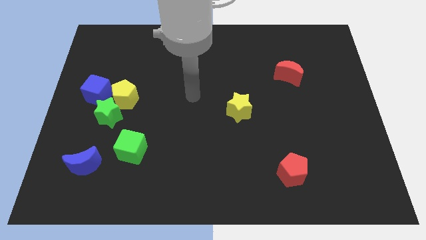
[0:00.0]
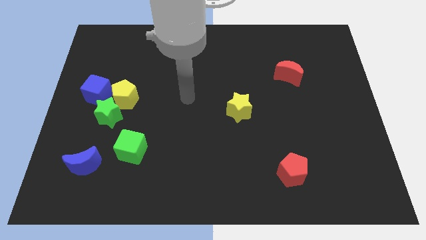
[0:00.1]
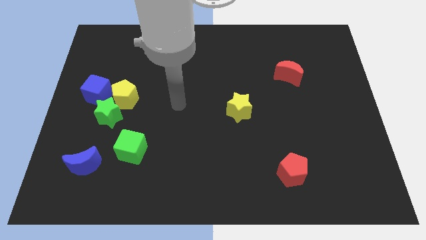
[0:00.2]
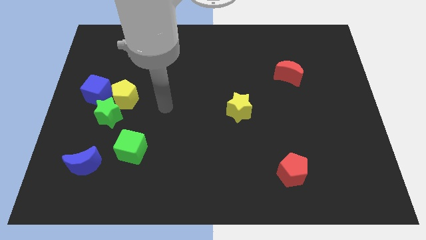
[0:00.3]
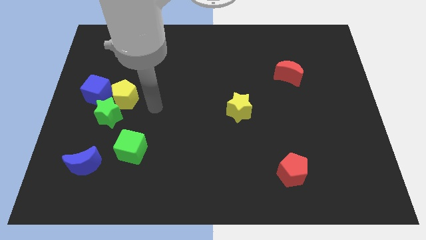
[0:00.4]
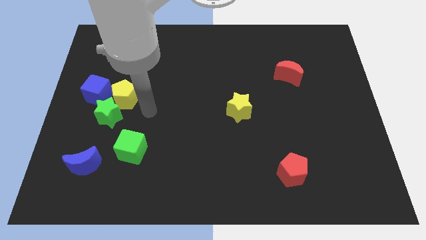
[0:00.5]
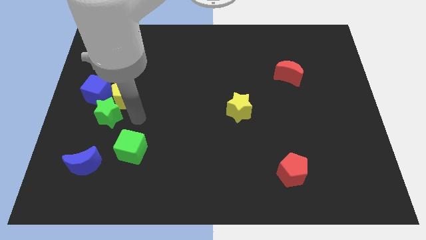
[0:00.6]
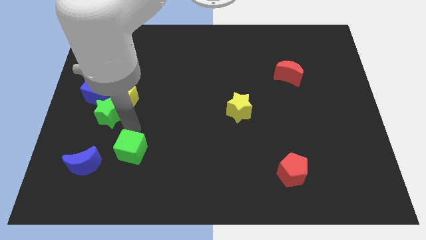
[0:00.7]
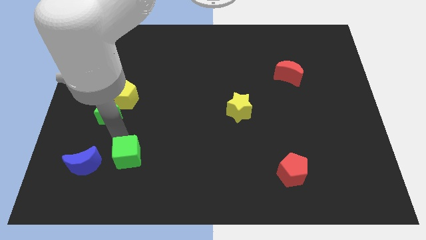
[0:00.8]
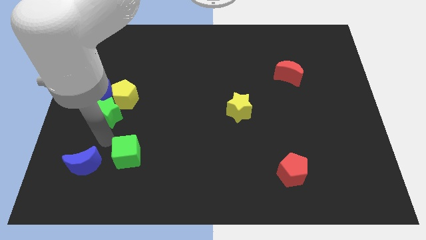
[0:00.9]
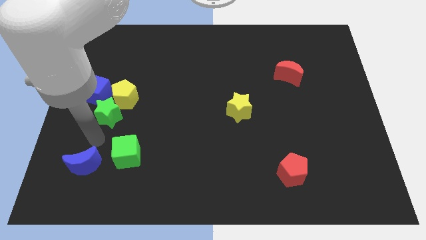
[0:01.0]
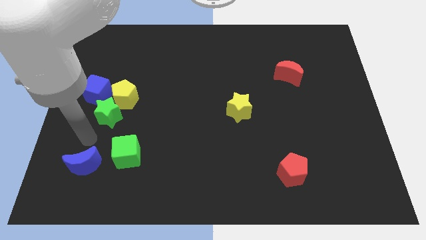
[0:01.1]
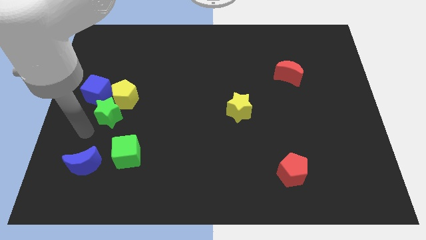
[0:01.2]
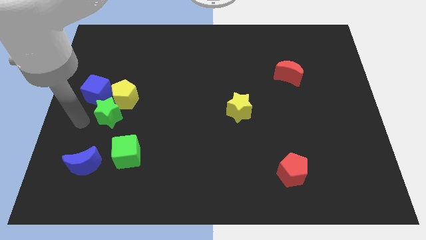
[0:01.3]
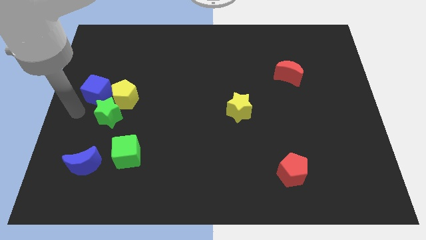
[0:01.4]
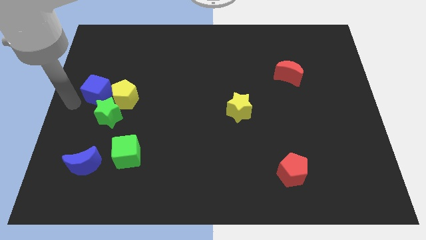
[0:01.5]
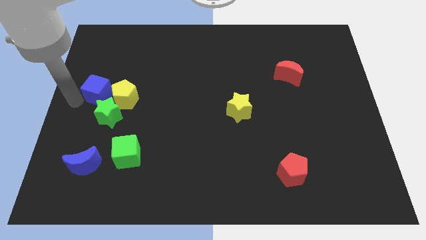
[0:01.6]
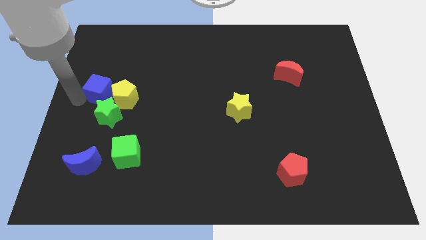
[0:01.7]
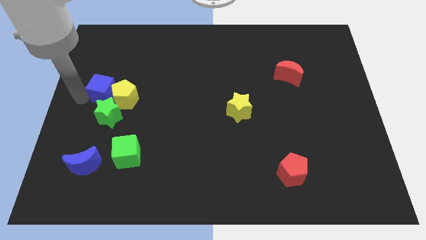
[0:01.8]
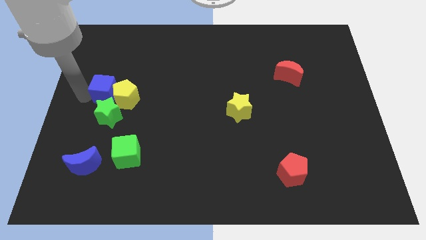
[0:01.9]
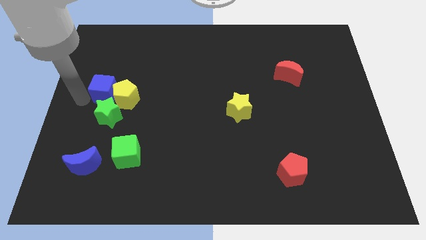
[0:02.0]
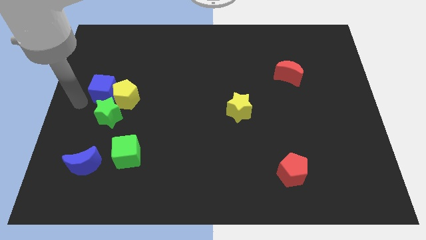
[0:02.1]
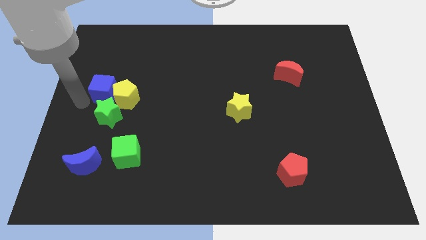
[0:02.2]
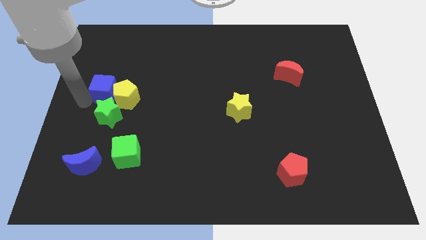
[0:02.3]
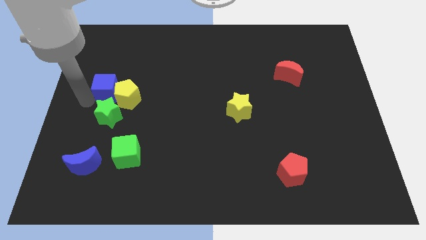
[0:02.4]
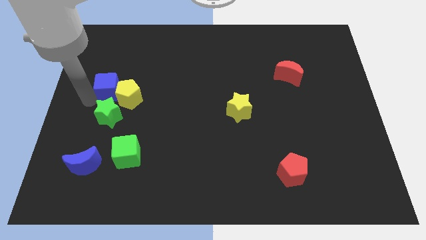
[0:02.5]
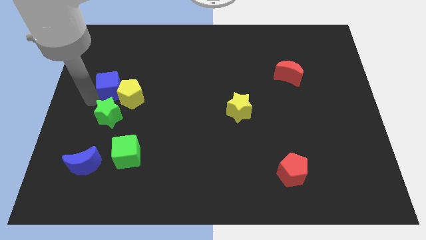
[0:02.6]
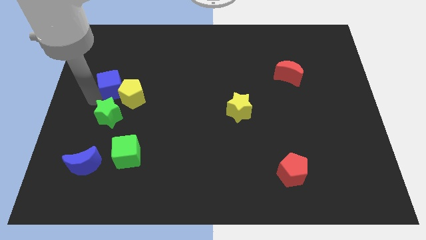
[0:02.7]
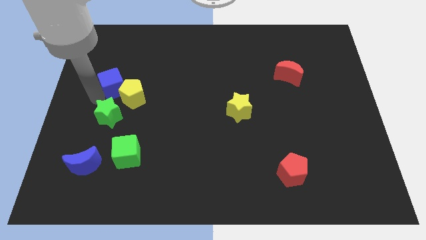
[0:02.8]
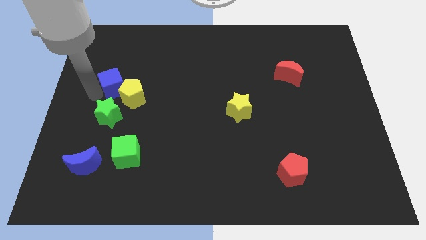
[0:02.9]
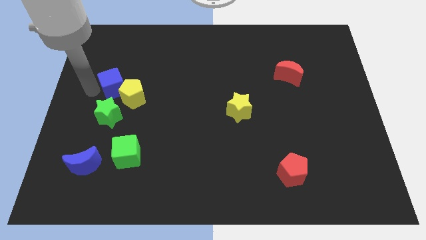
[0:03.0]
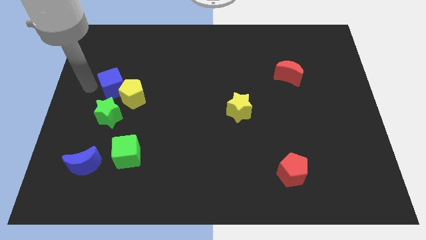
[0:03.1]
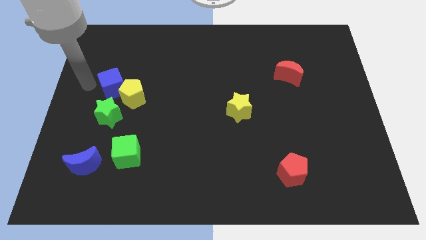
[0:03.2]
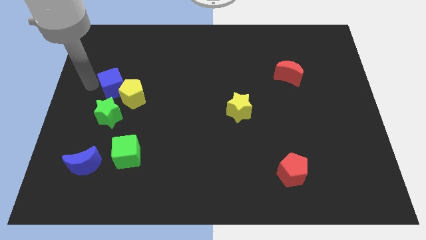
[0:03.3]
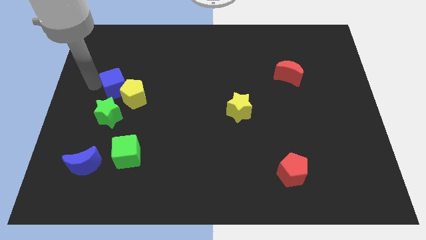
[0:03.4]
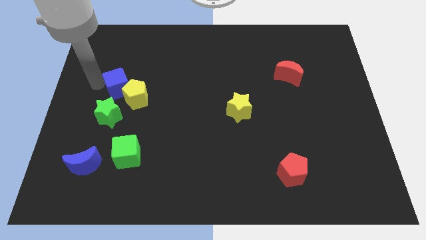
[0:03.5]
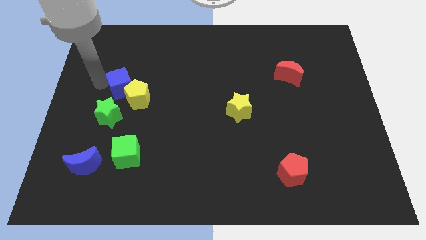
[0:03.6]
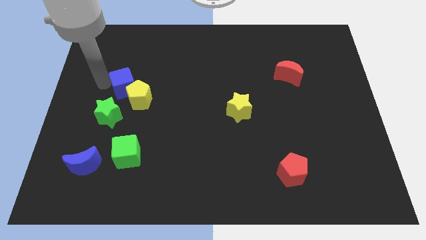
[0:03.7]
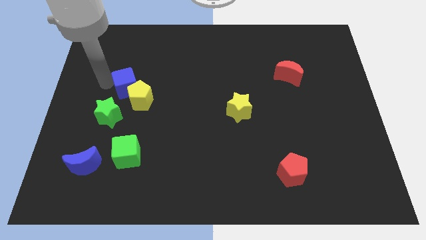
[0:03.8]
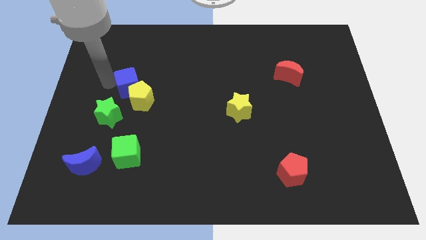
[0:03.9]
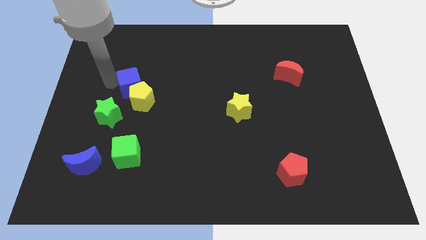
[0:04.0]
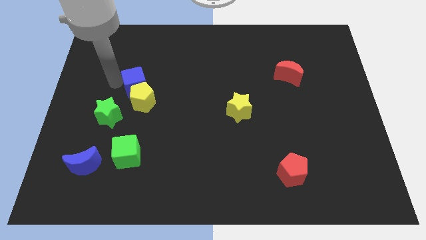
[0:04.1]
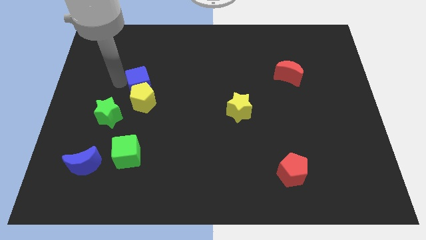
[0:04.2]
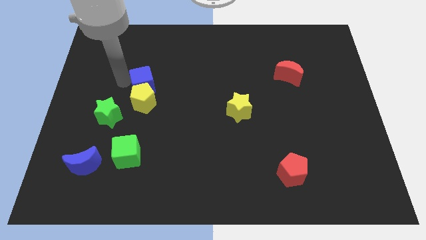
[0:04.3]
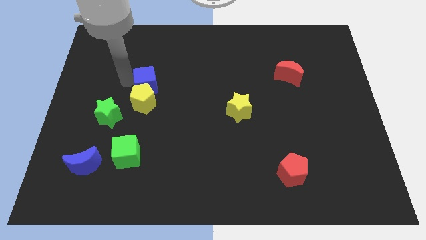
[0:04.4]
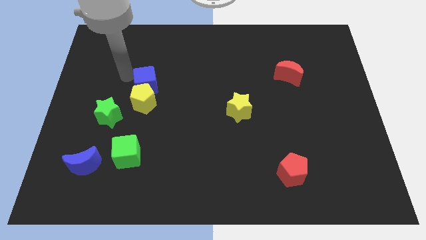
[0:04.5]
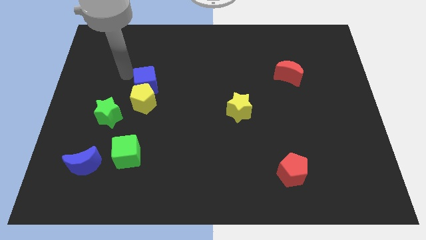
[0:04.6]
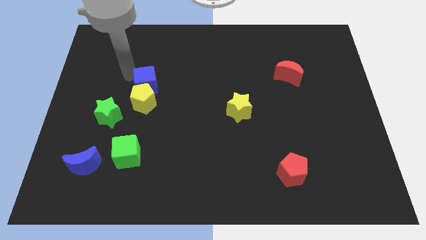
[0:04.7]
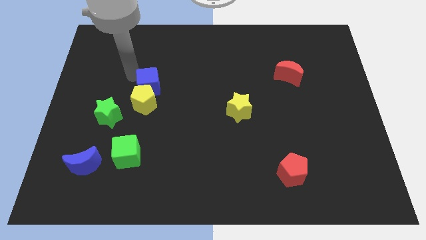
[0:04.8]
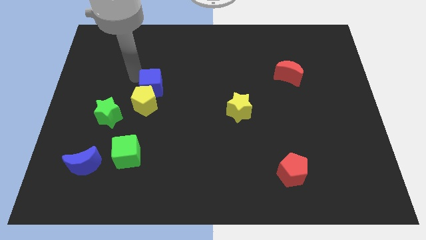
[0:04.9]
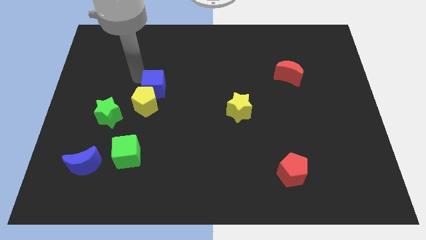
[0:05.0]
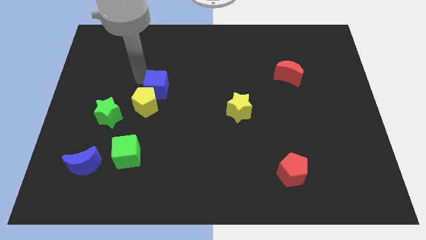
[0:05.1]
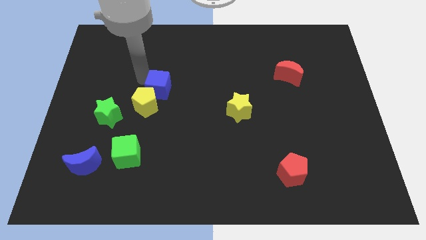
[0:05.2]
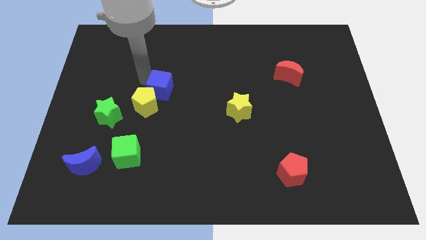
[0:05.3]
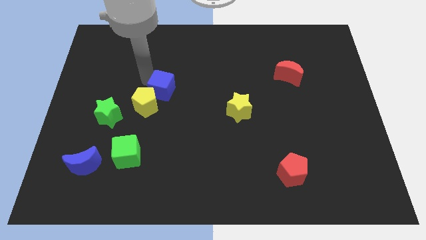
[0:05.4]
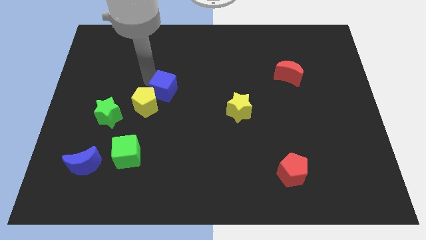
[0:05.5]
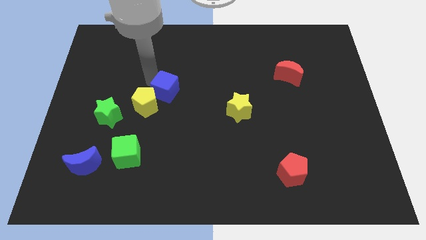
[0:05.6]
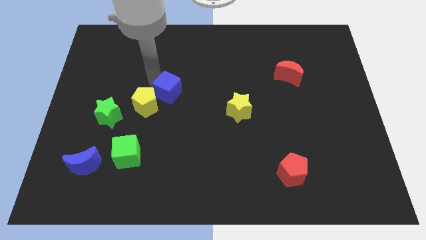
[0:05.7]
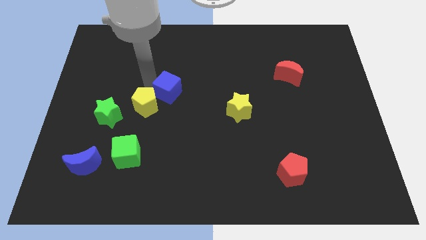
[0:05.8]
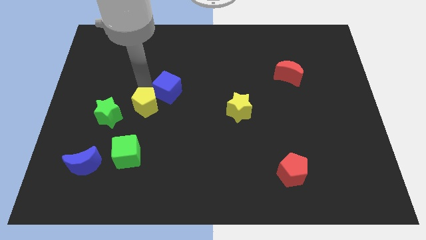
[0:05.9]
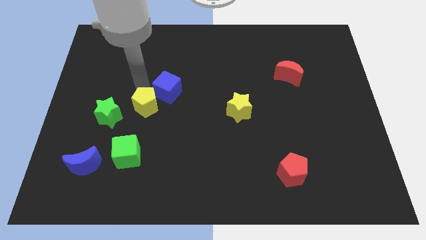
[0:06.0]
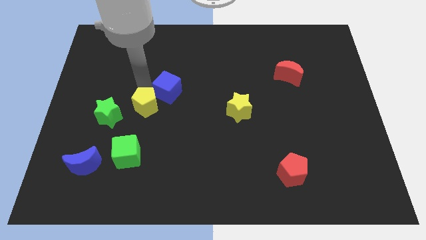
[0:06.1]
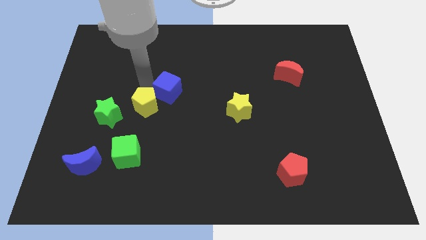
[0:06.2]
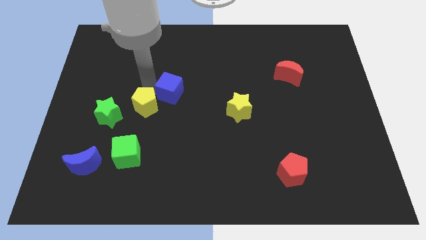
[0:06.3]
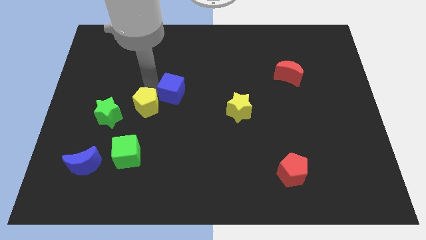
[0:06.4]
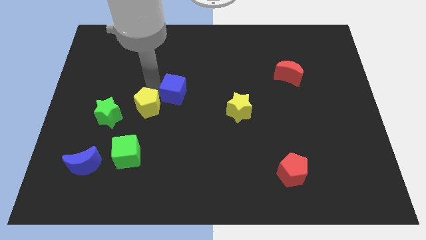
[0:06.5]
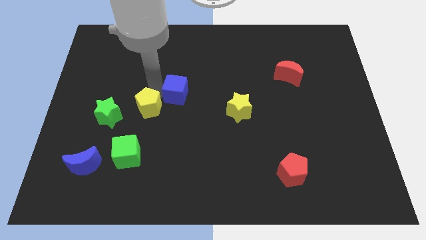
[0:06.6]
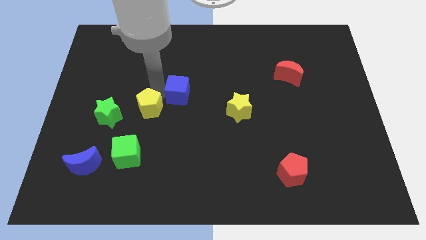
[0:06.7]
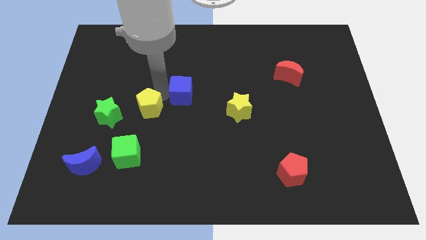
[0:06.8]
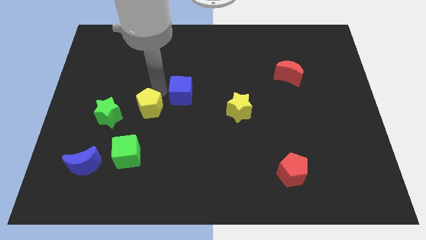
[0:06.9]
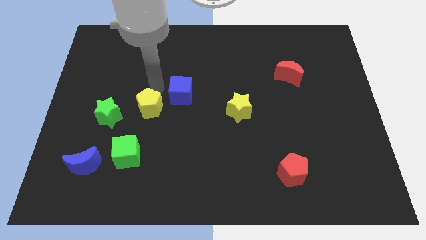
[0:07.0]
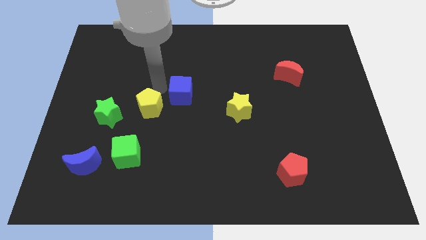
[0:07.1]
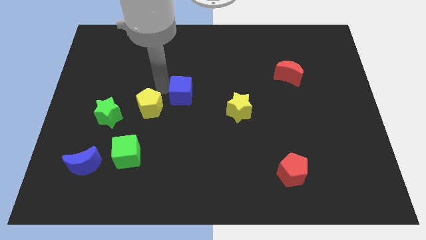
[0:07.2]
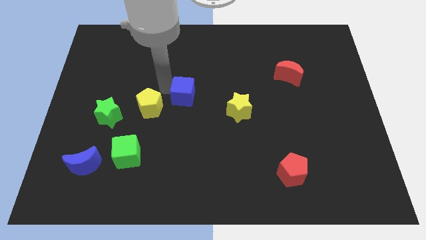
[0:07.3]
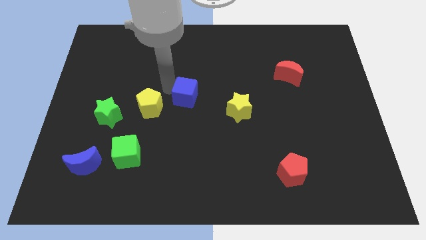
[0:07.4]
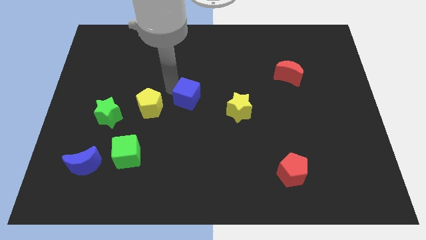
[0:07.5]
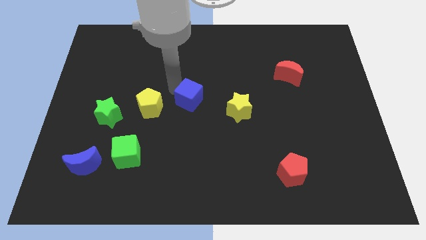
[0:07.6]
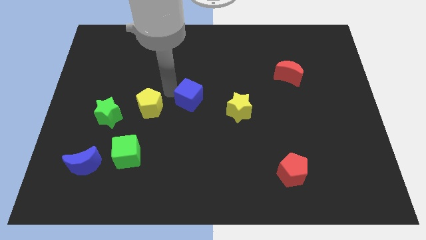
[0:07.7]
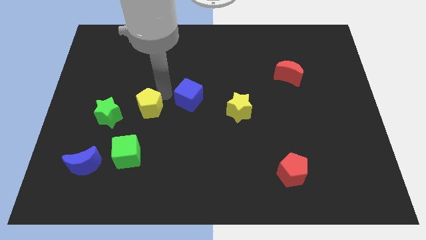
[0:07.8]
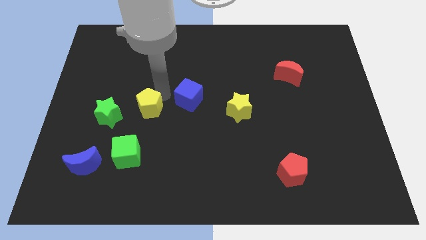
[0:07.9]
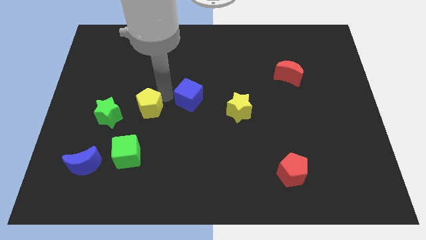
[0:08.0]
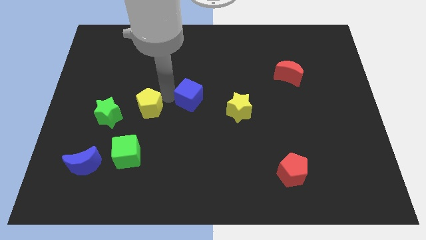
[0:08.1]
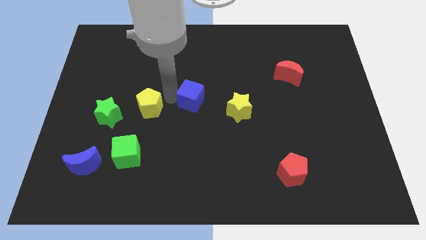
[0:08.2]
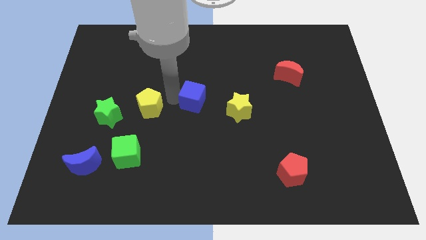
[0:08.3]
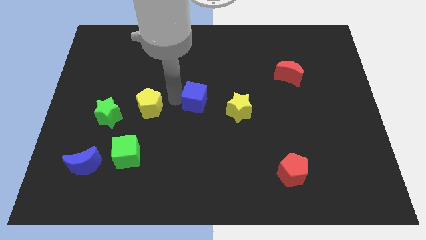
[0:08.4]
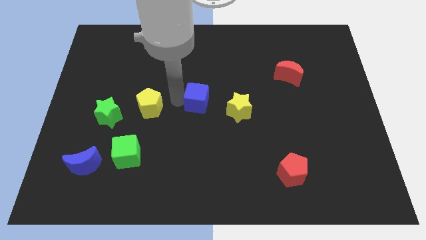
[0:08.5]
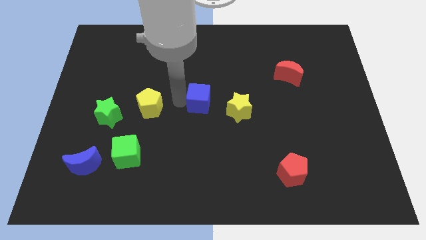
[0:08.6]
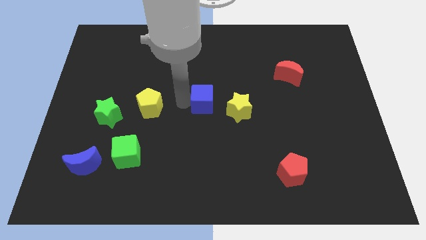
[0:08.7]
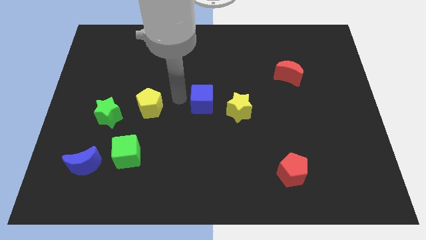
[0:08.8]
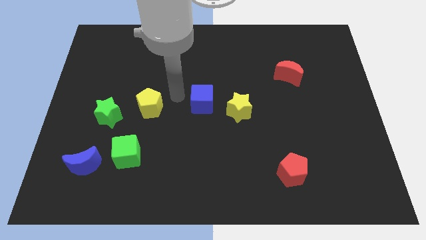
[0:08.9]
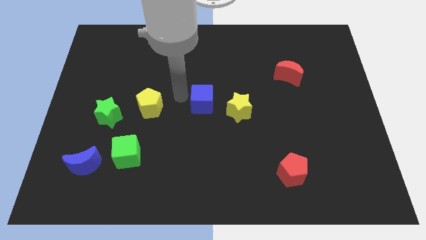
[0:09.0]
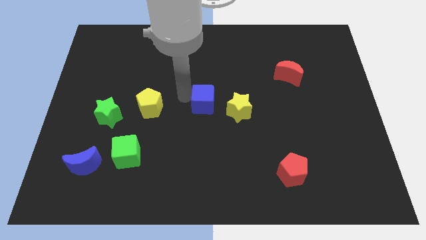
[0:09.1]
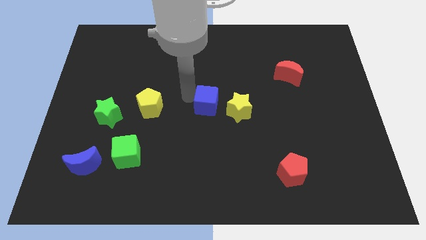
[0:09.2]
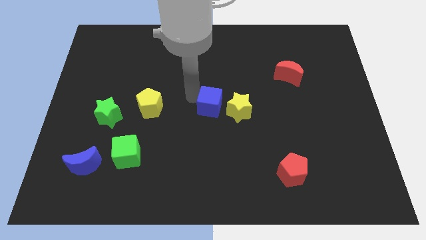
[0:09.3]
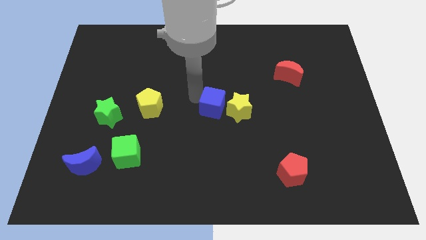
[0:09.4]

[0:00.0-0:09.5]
put the blue cube next to the yellow star
